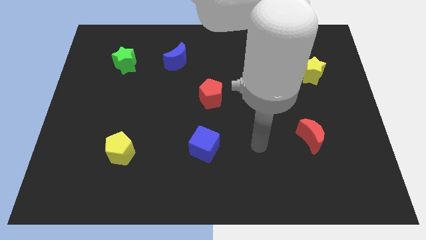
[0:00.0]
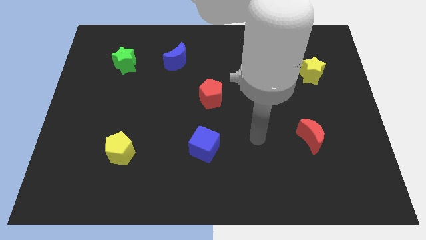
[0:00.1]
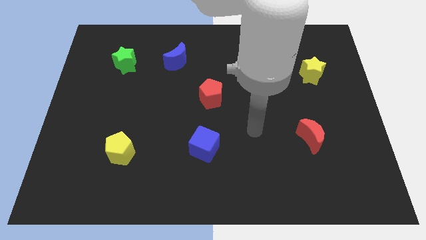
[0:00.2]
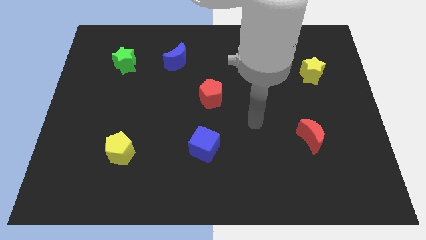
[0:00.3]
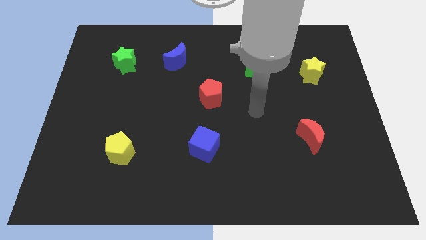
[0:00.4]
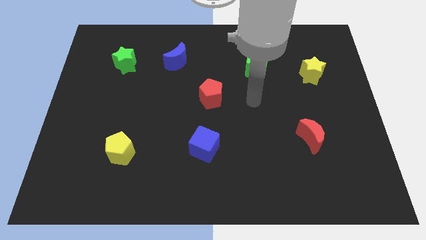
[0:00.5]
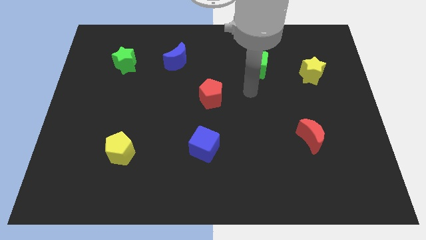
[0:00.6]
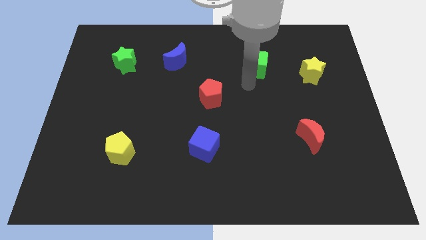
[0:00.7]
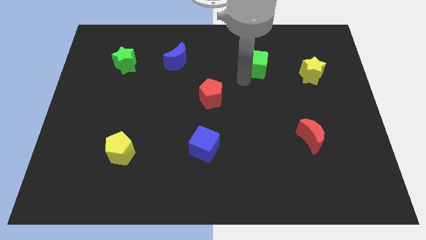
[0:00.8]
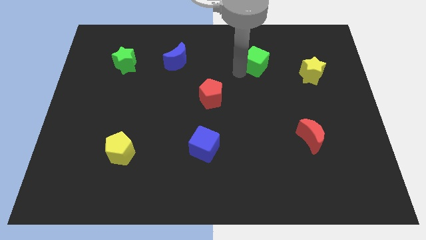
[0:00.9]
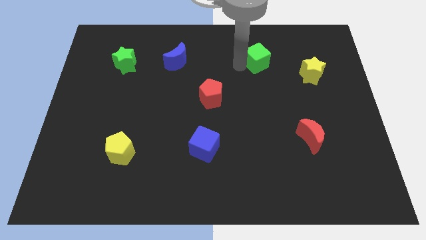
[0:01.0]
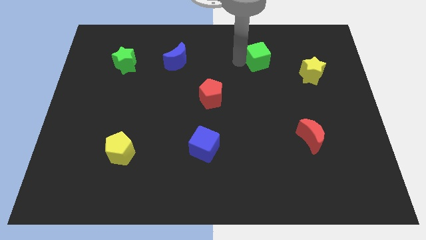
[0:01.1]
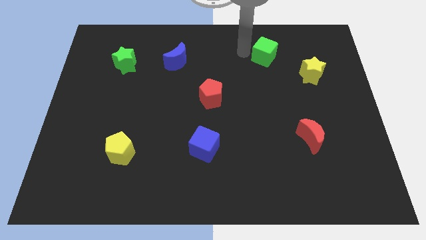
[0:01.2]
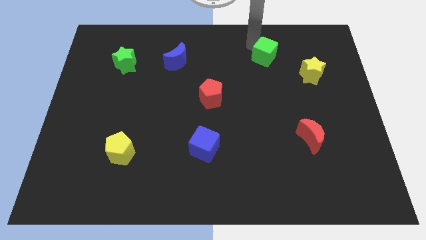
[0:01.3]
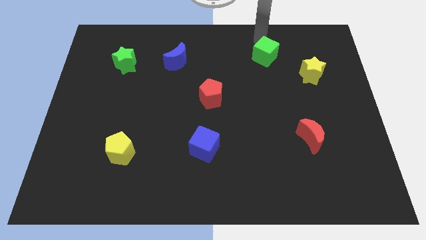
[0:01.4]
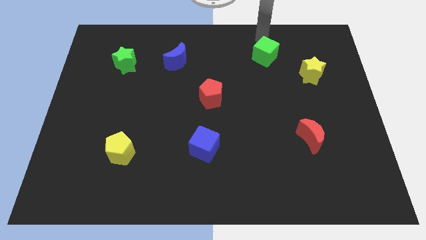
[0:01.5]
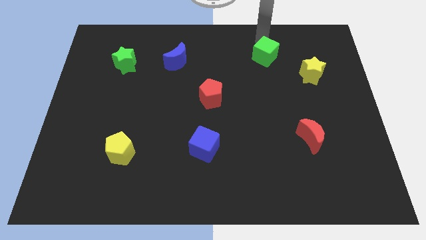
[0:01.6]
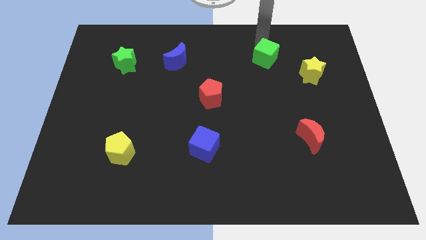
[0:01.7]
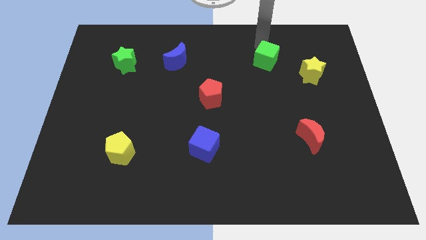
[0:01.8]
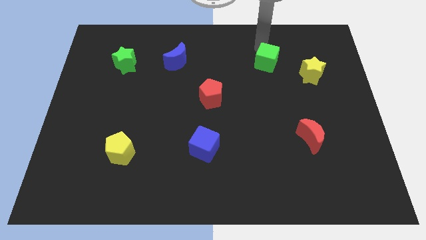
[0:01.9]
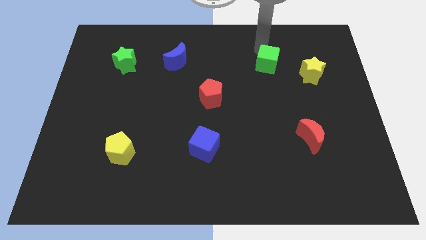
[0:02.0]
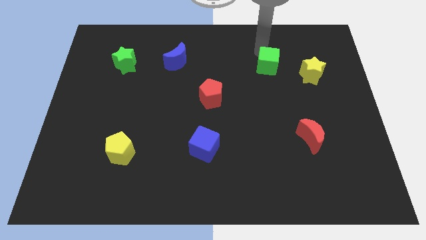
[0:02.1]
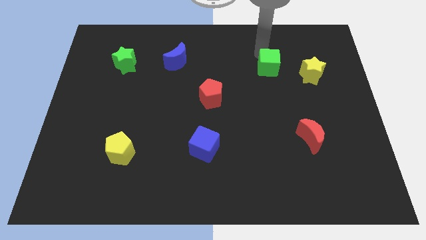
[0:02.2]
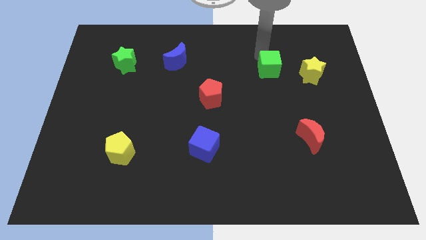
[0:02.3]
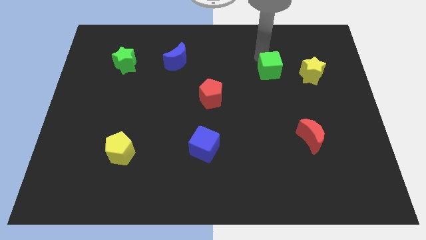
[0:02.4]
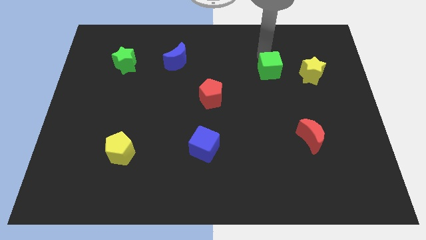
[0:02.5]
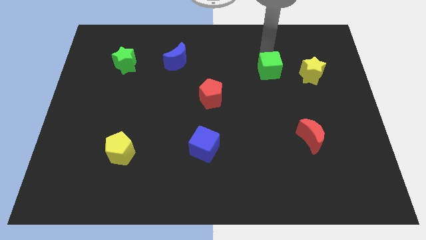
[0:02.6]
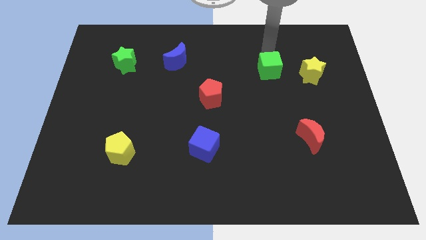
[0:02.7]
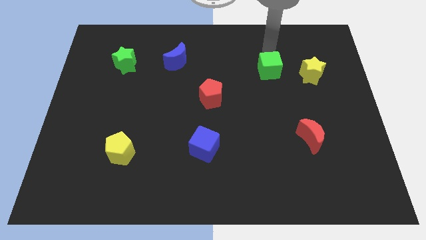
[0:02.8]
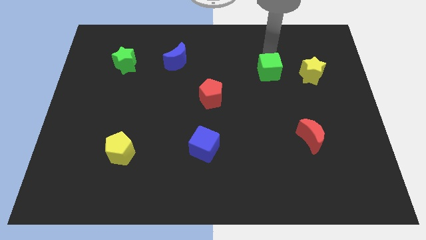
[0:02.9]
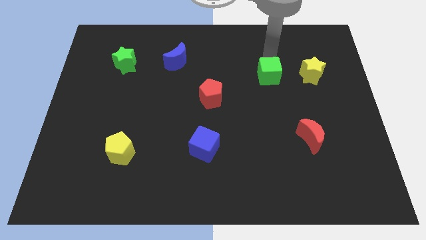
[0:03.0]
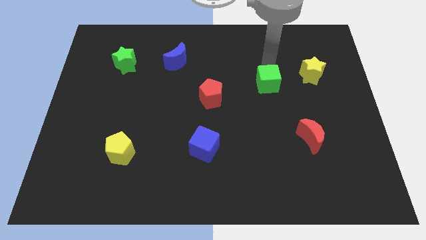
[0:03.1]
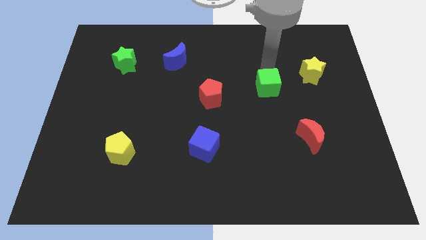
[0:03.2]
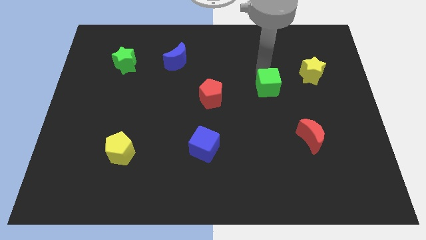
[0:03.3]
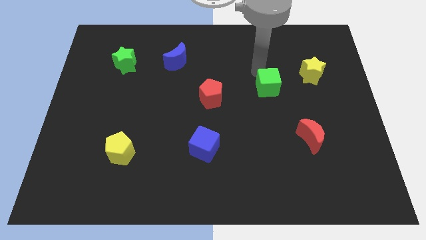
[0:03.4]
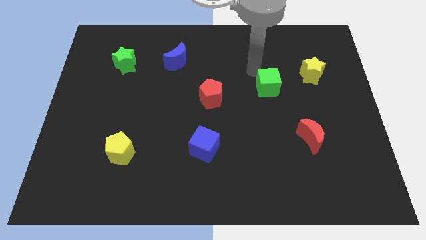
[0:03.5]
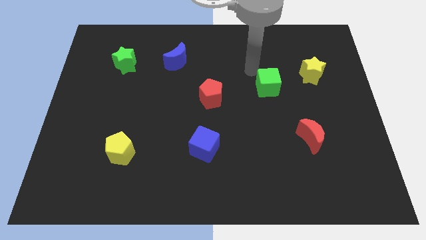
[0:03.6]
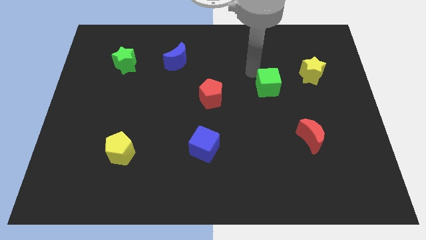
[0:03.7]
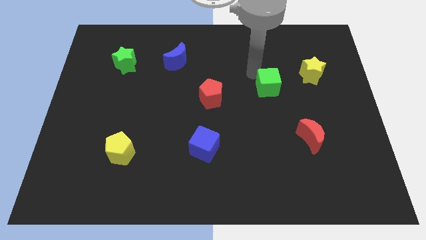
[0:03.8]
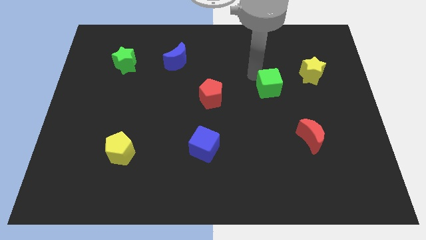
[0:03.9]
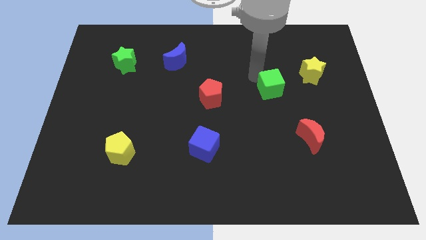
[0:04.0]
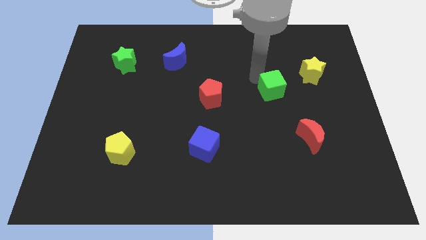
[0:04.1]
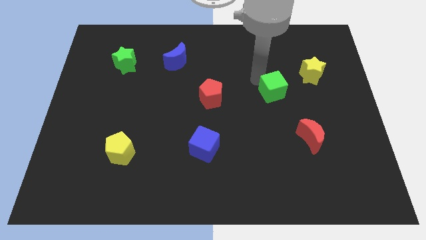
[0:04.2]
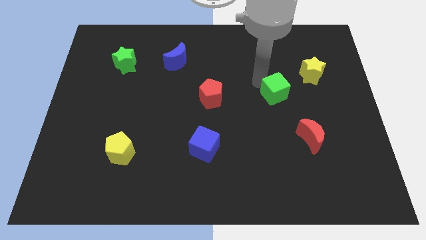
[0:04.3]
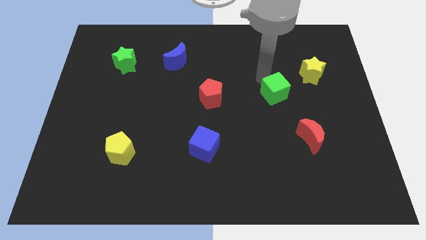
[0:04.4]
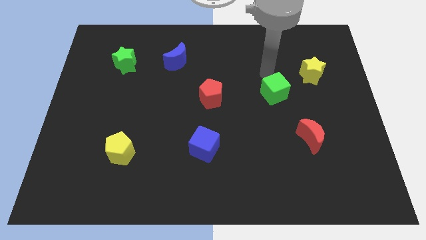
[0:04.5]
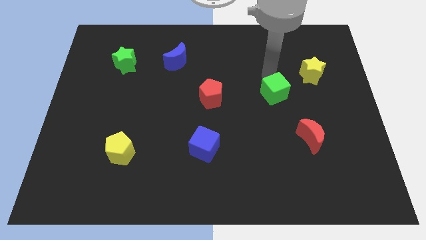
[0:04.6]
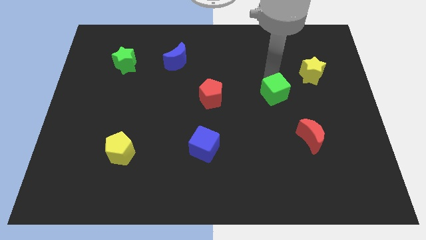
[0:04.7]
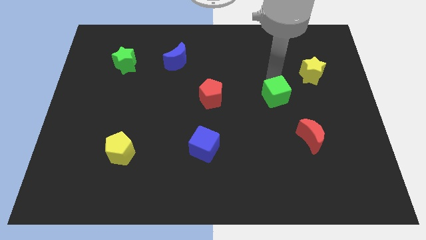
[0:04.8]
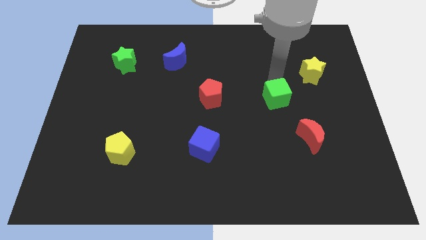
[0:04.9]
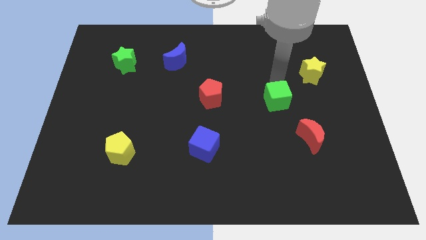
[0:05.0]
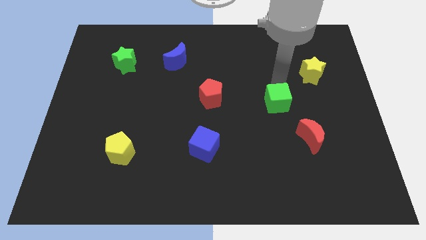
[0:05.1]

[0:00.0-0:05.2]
push the green cube to the top left of the red moon

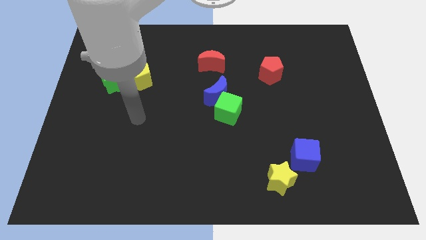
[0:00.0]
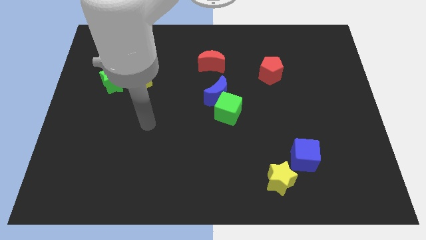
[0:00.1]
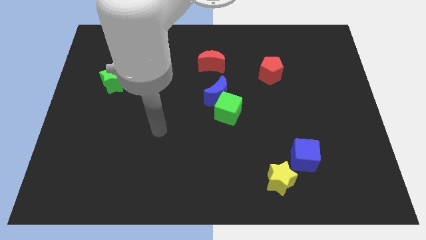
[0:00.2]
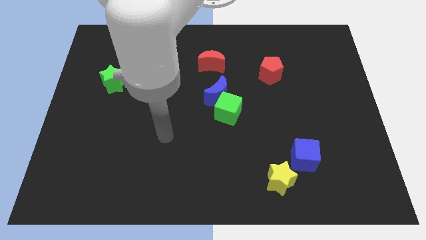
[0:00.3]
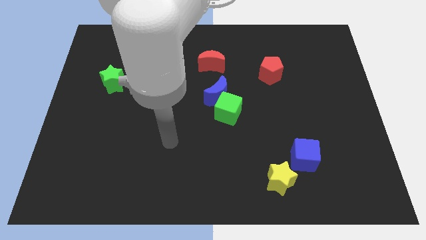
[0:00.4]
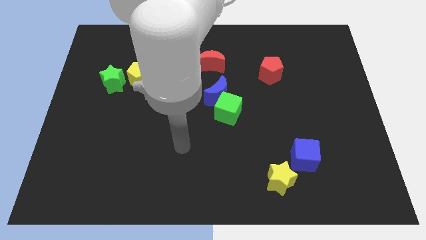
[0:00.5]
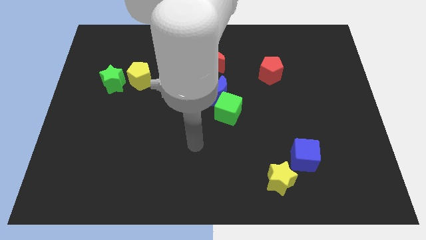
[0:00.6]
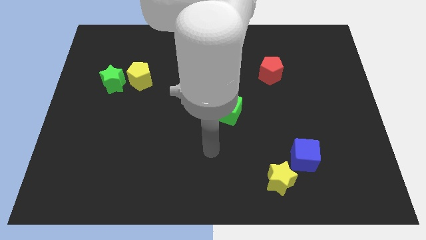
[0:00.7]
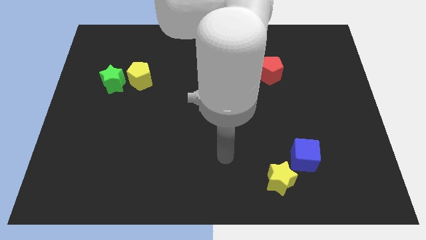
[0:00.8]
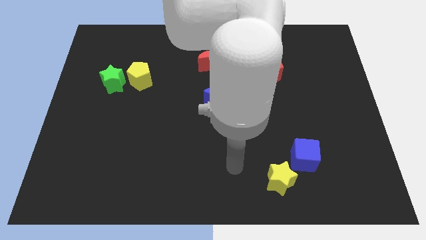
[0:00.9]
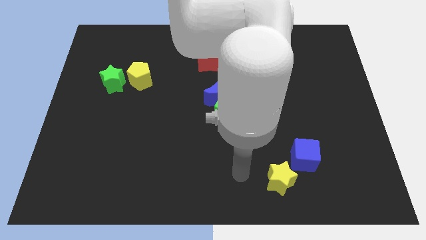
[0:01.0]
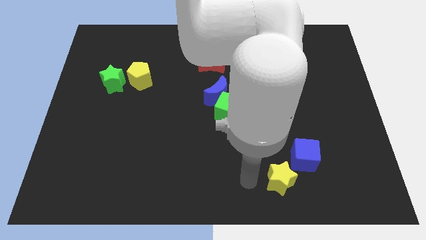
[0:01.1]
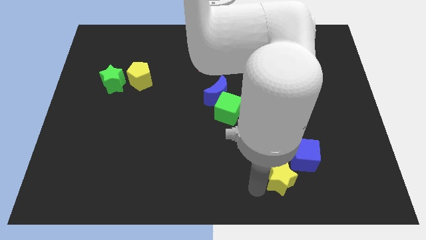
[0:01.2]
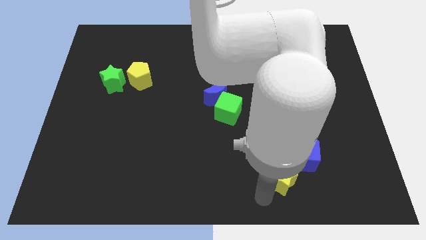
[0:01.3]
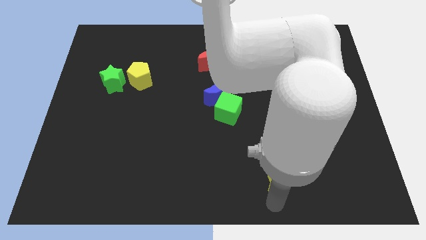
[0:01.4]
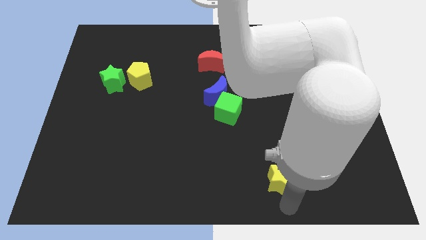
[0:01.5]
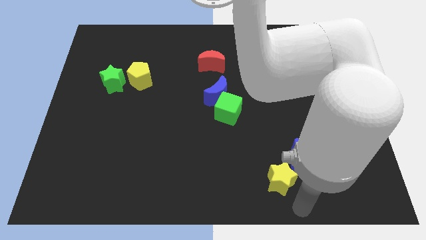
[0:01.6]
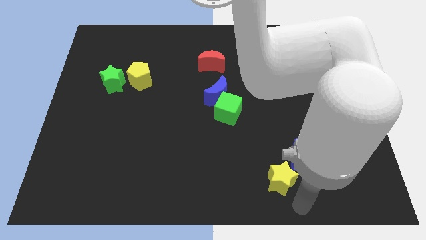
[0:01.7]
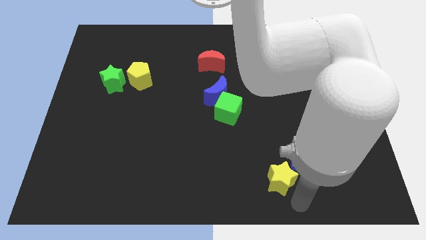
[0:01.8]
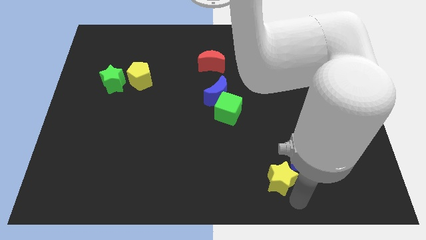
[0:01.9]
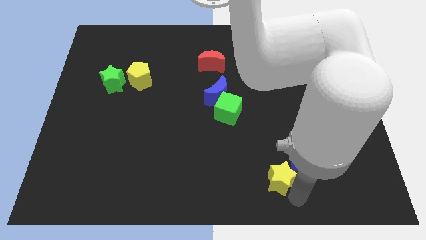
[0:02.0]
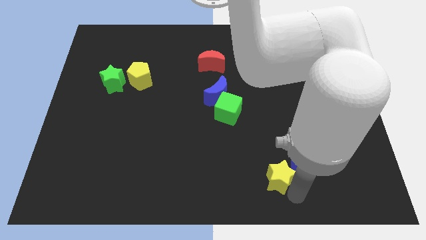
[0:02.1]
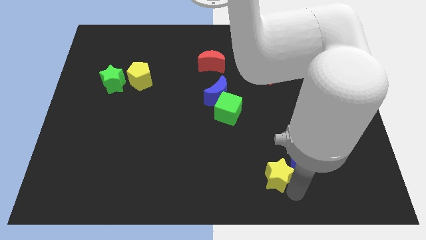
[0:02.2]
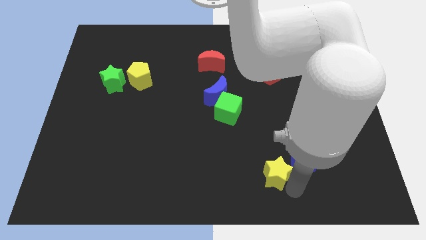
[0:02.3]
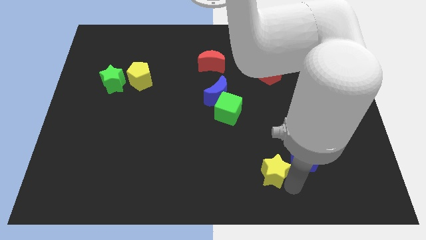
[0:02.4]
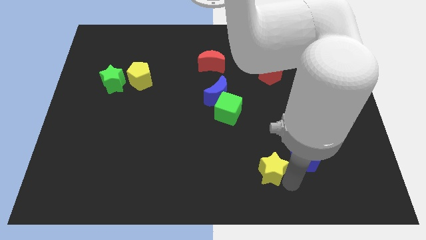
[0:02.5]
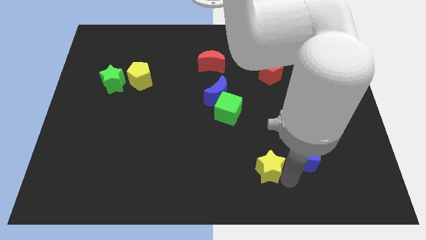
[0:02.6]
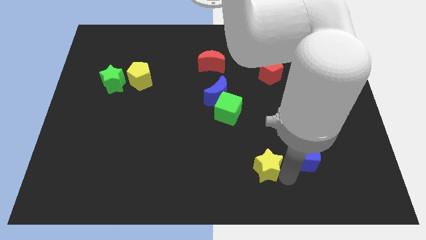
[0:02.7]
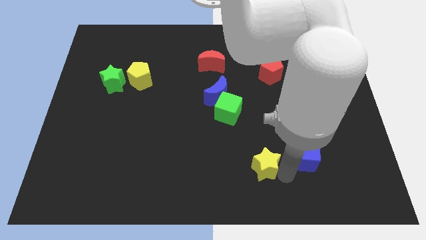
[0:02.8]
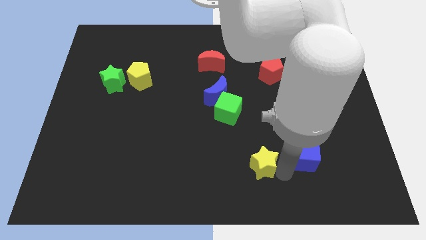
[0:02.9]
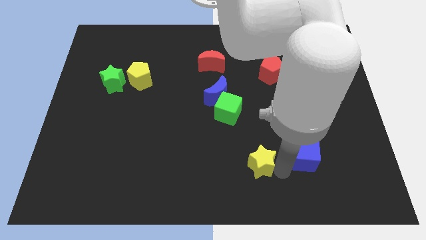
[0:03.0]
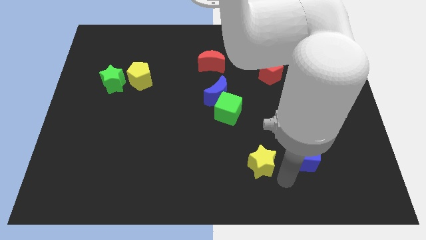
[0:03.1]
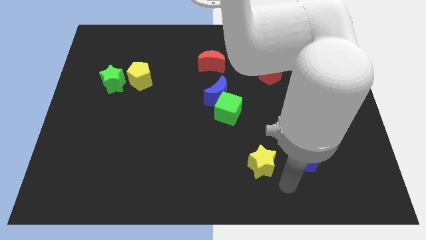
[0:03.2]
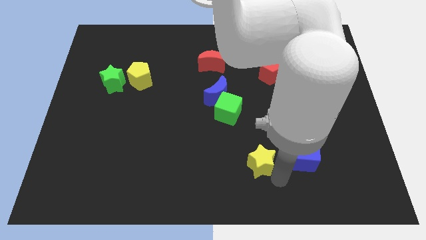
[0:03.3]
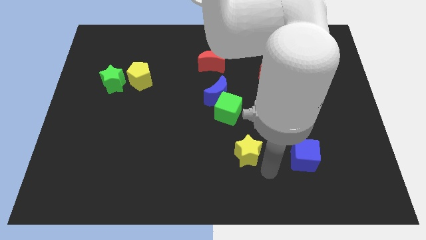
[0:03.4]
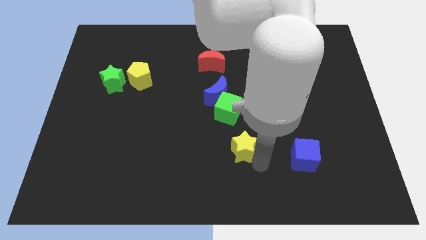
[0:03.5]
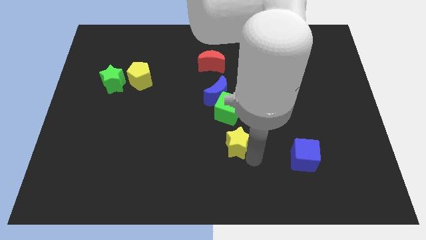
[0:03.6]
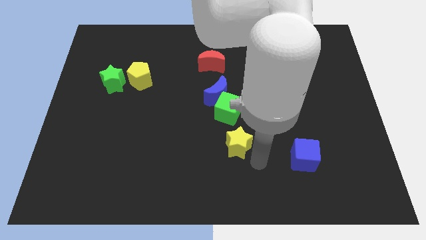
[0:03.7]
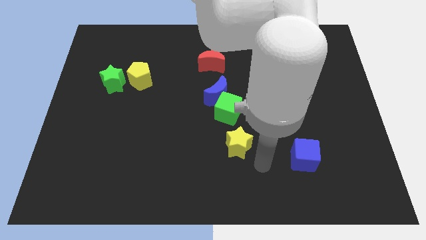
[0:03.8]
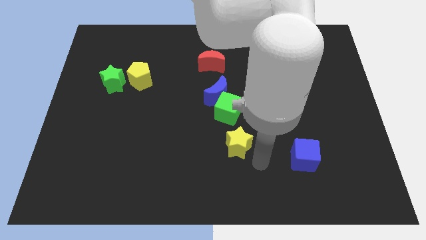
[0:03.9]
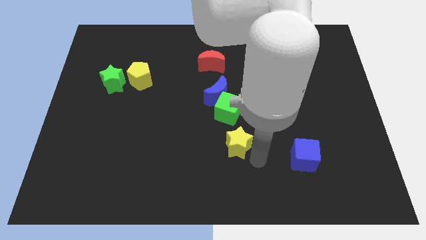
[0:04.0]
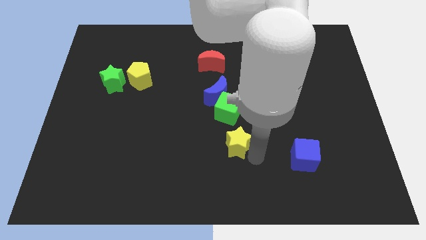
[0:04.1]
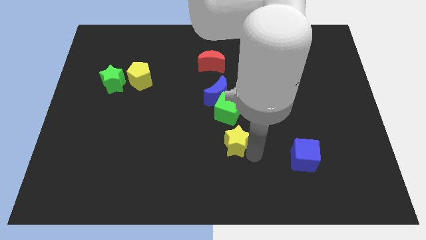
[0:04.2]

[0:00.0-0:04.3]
push the yellow star below the blue moon
